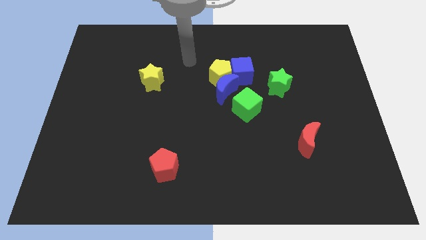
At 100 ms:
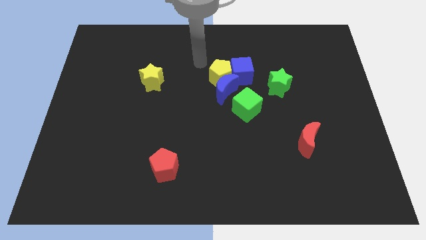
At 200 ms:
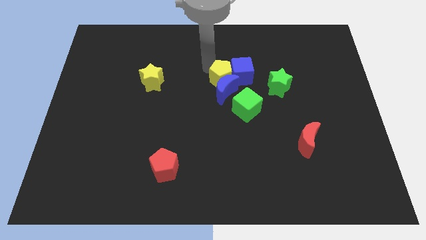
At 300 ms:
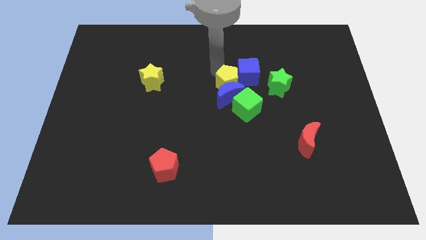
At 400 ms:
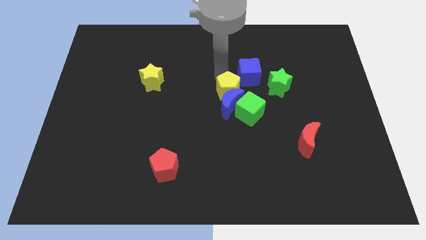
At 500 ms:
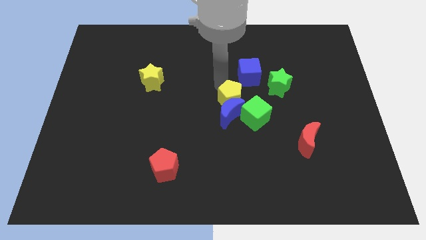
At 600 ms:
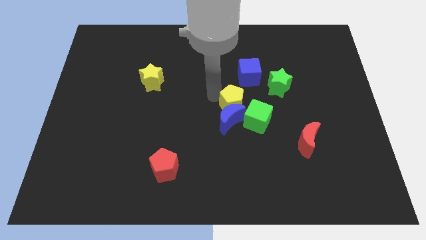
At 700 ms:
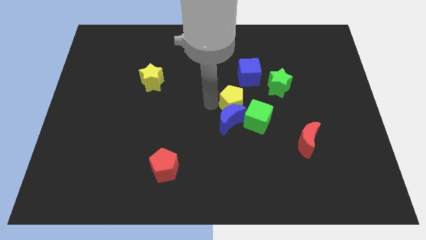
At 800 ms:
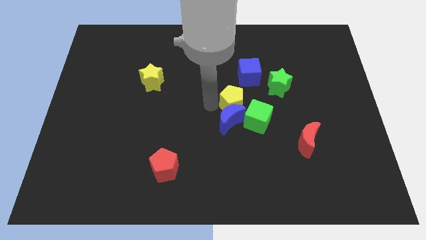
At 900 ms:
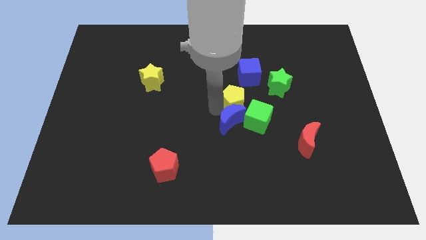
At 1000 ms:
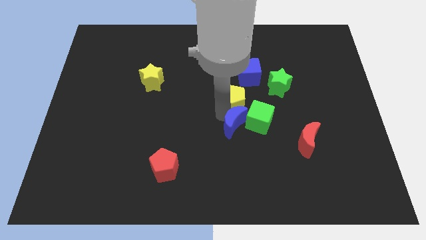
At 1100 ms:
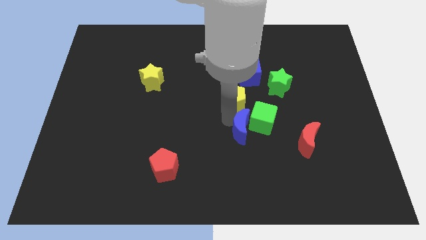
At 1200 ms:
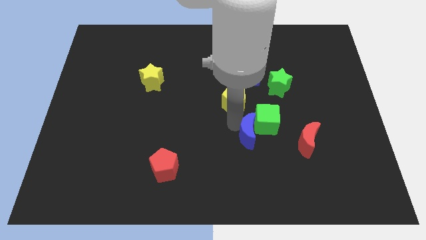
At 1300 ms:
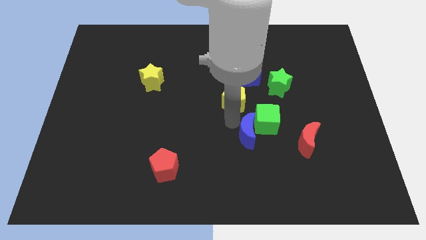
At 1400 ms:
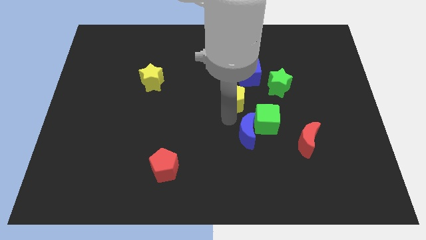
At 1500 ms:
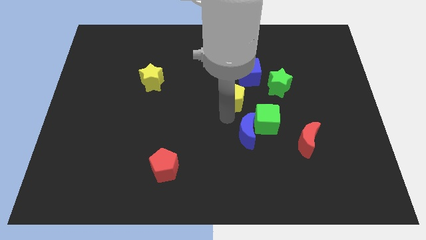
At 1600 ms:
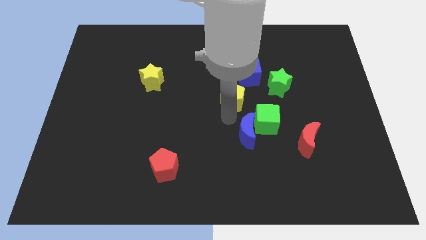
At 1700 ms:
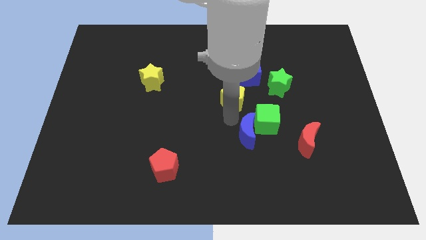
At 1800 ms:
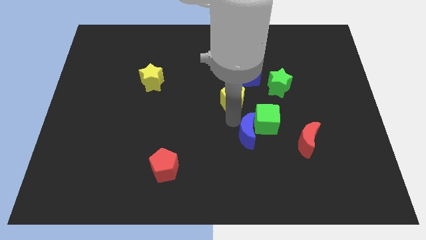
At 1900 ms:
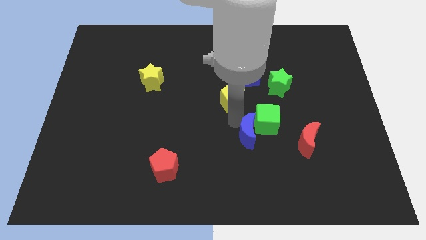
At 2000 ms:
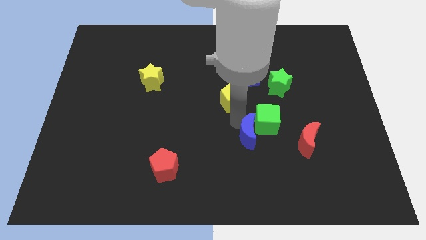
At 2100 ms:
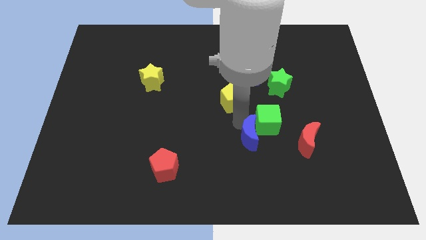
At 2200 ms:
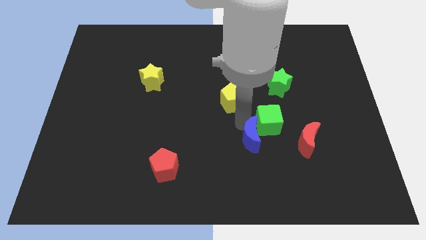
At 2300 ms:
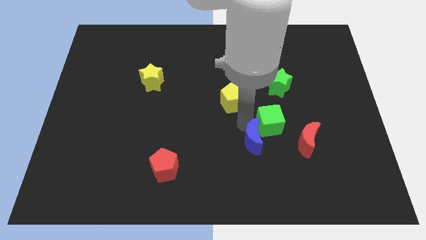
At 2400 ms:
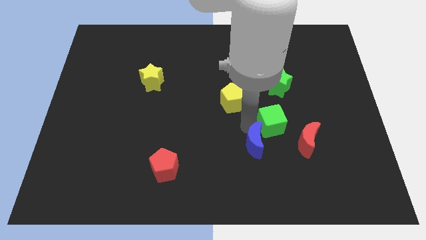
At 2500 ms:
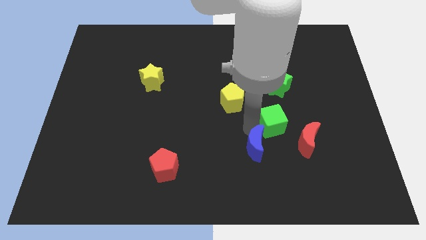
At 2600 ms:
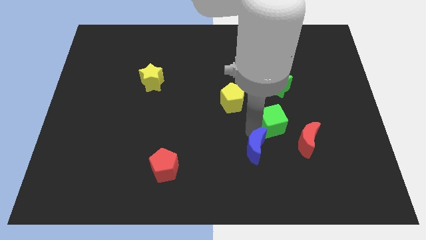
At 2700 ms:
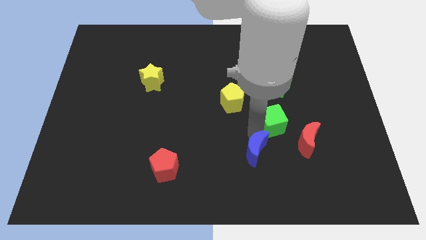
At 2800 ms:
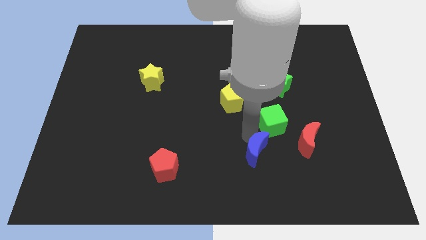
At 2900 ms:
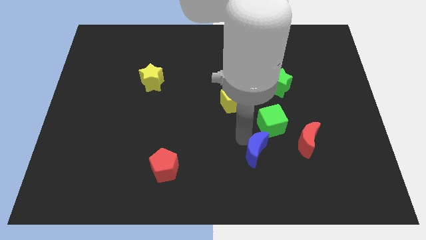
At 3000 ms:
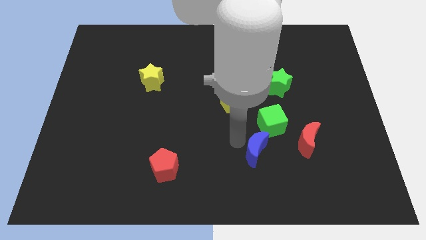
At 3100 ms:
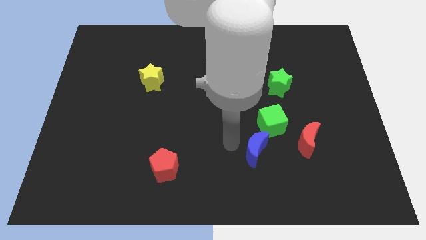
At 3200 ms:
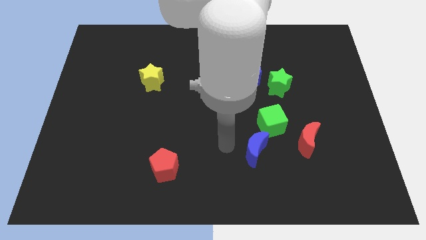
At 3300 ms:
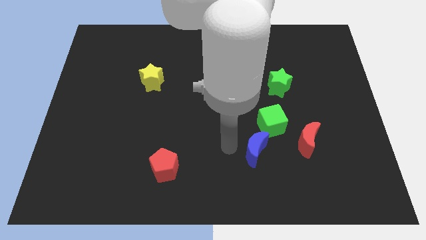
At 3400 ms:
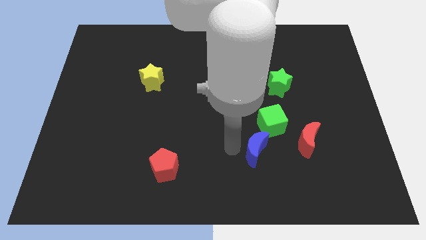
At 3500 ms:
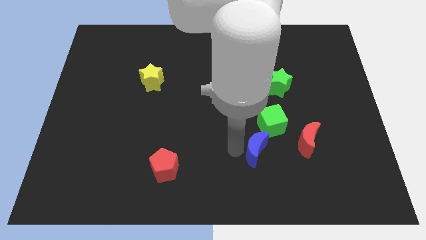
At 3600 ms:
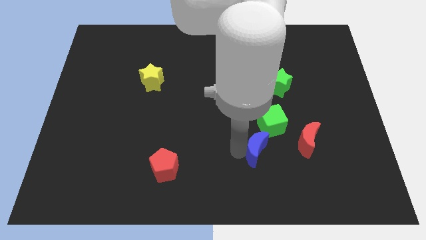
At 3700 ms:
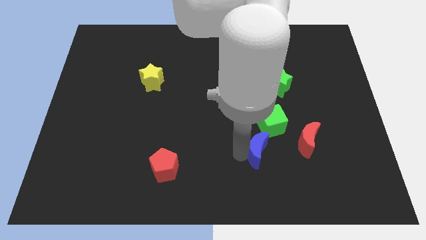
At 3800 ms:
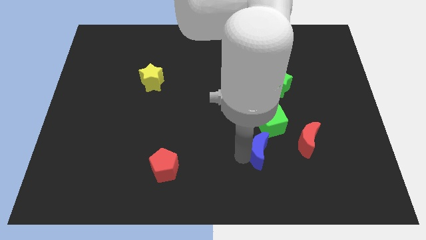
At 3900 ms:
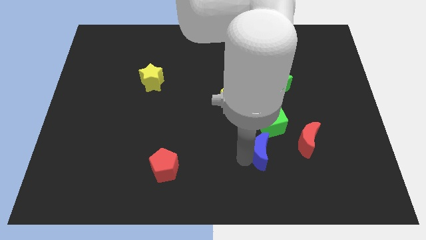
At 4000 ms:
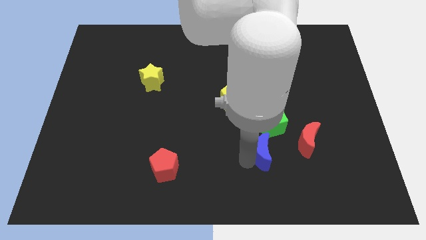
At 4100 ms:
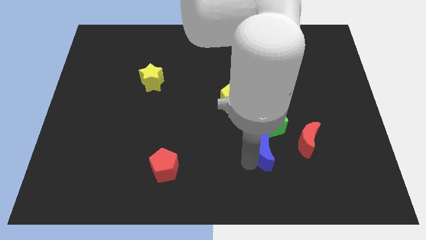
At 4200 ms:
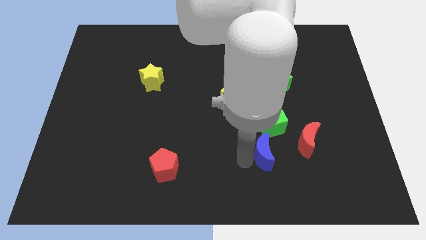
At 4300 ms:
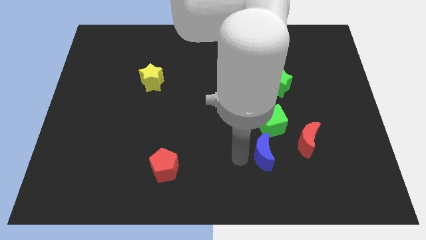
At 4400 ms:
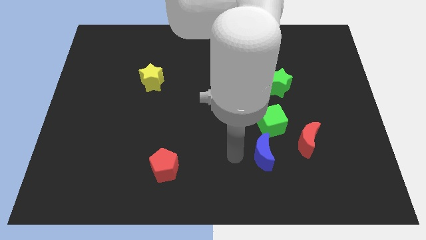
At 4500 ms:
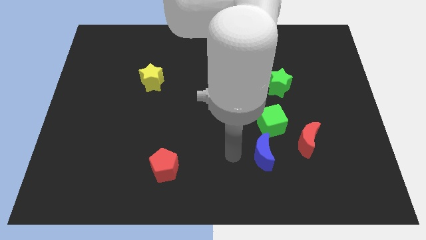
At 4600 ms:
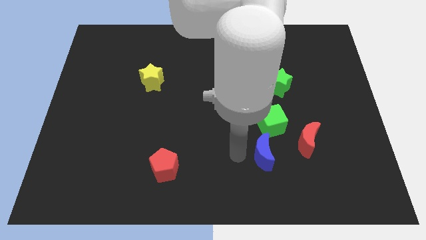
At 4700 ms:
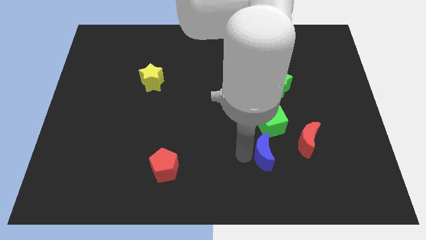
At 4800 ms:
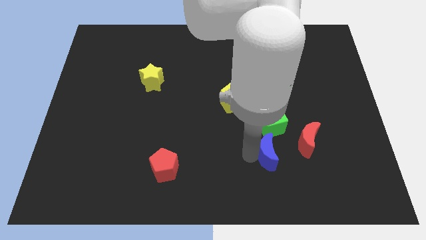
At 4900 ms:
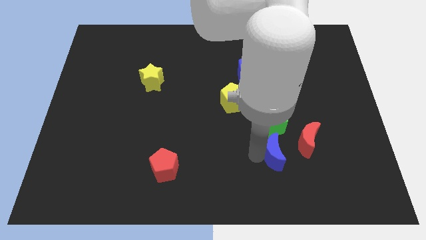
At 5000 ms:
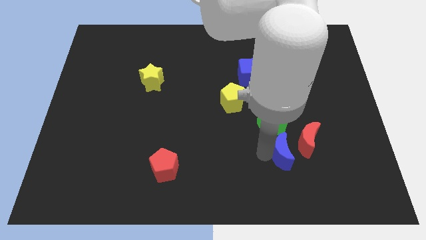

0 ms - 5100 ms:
slide the blue moon down and to the right diagonally

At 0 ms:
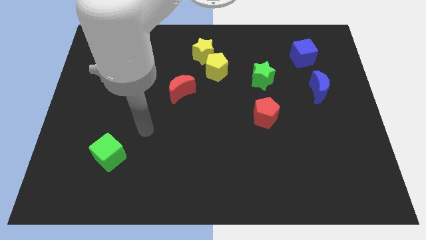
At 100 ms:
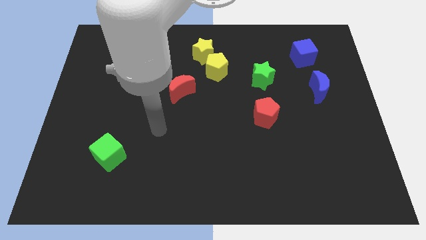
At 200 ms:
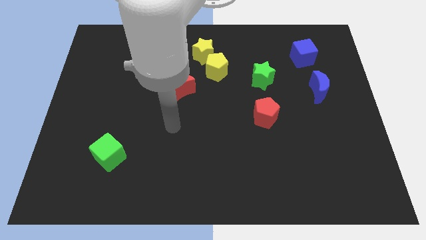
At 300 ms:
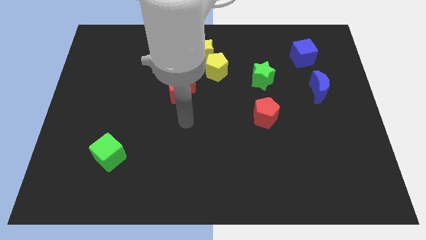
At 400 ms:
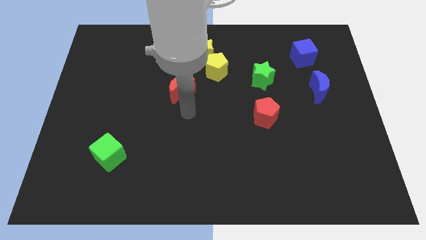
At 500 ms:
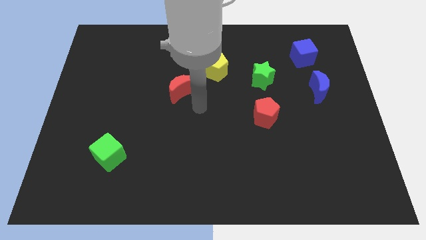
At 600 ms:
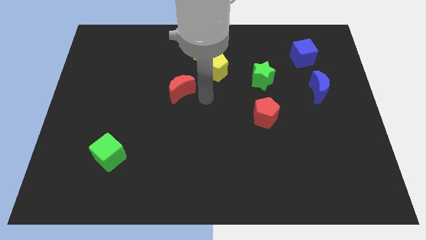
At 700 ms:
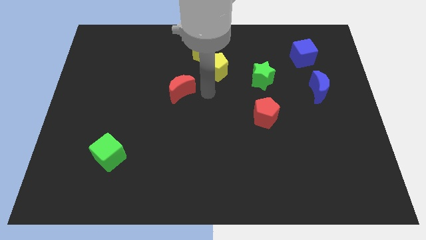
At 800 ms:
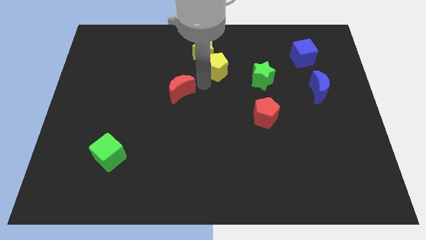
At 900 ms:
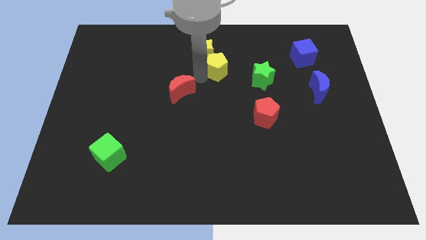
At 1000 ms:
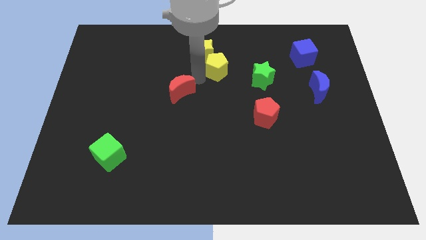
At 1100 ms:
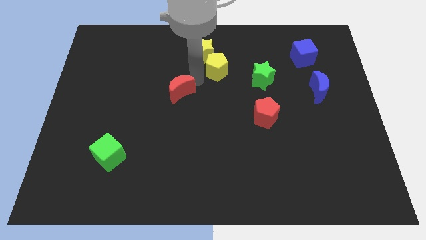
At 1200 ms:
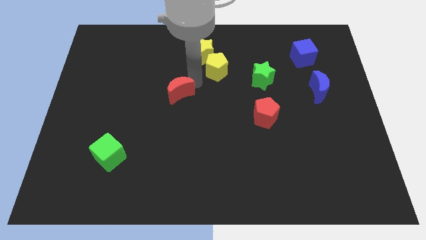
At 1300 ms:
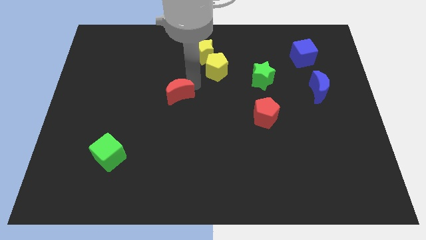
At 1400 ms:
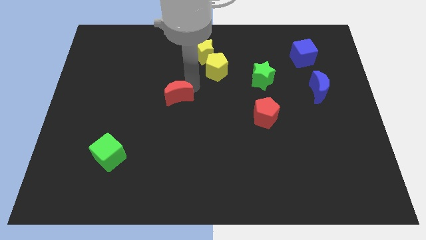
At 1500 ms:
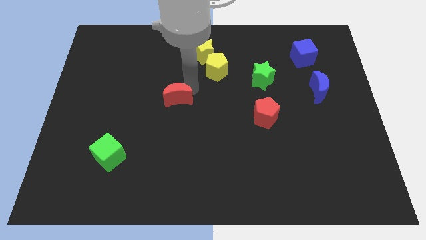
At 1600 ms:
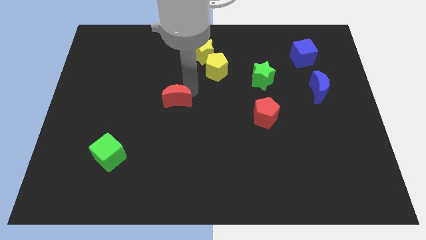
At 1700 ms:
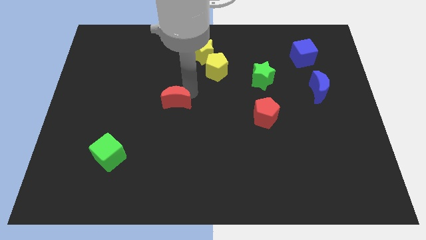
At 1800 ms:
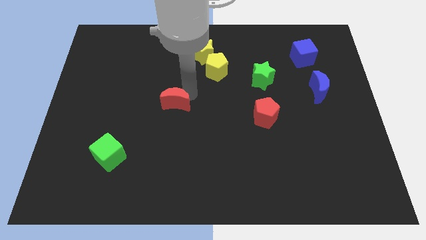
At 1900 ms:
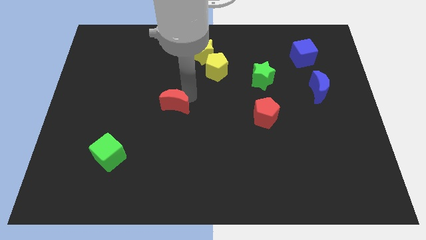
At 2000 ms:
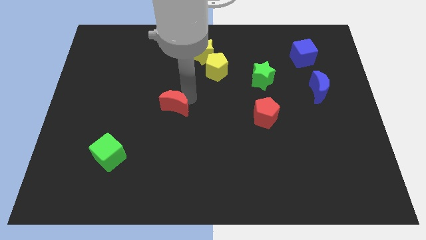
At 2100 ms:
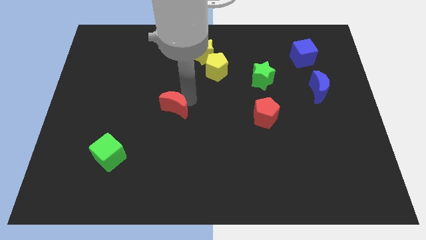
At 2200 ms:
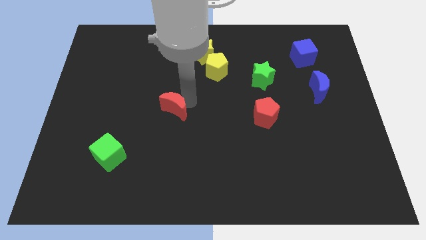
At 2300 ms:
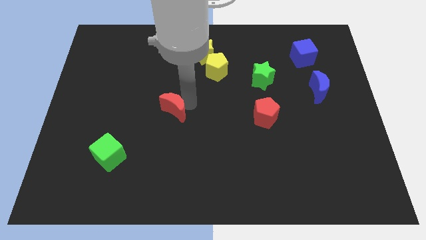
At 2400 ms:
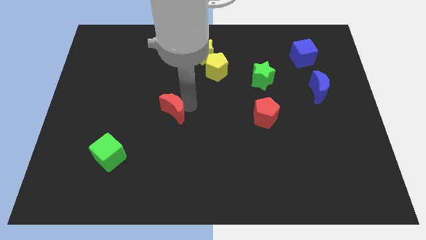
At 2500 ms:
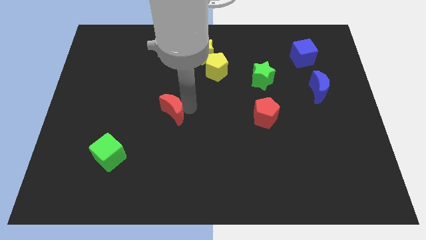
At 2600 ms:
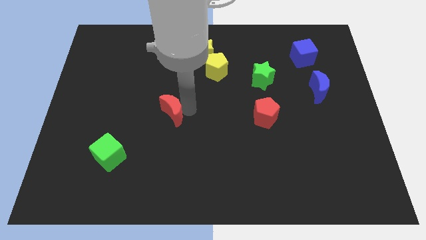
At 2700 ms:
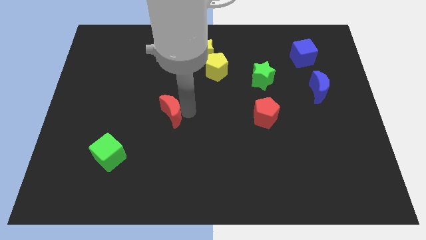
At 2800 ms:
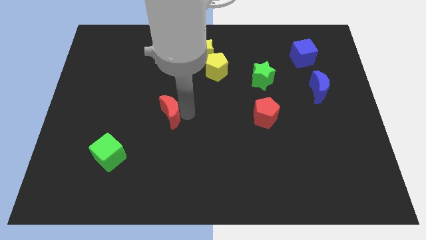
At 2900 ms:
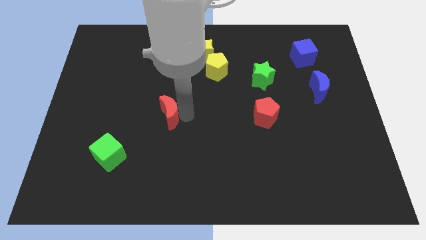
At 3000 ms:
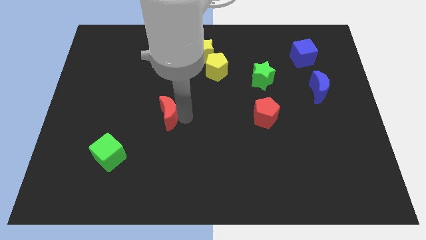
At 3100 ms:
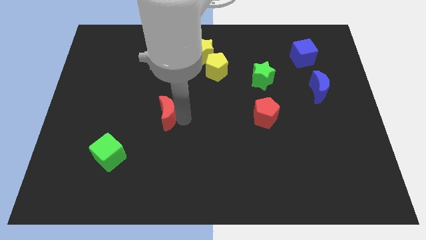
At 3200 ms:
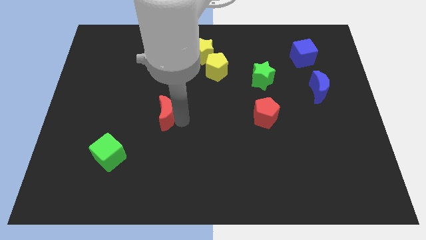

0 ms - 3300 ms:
move the red moon diagonally downwards and to the left somewhat

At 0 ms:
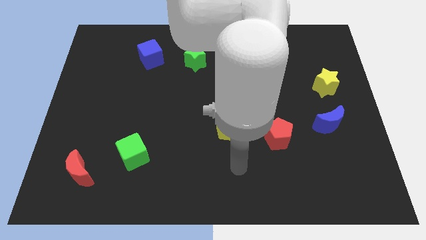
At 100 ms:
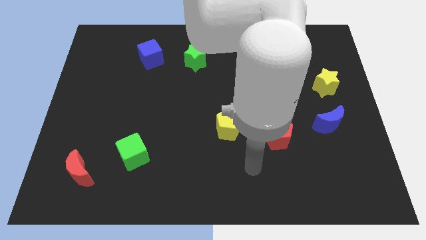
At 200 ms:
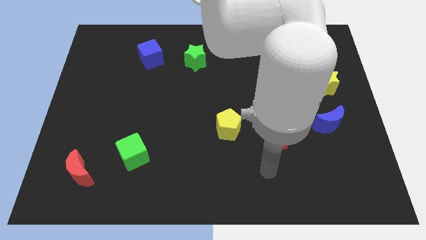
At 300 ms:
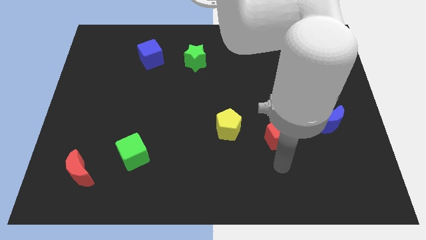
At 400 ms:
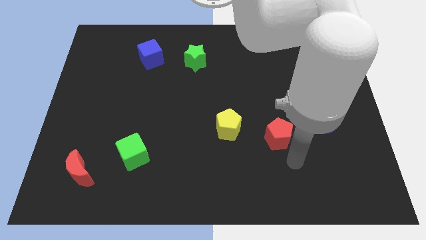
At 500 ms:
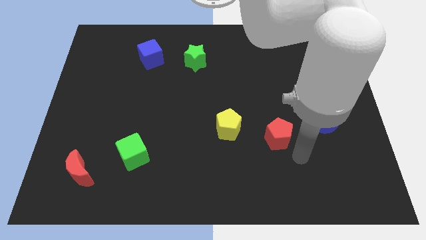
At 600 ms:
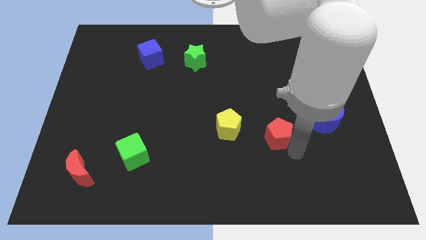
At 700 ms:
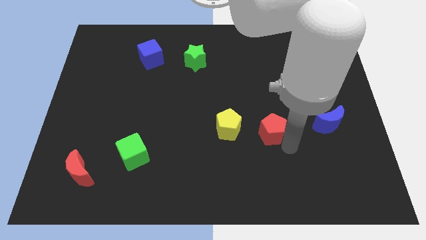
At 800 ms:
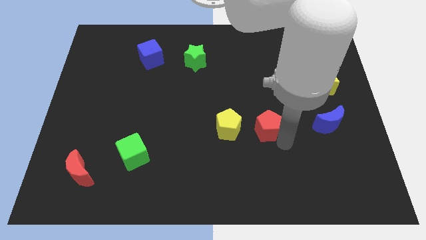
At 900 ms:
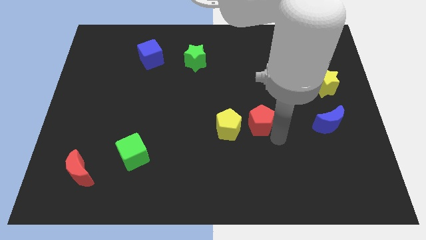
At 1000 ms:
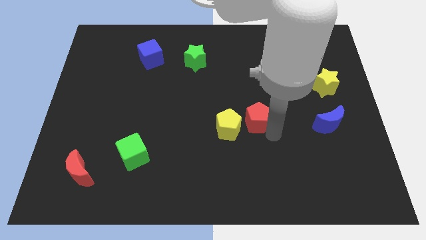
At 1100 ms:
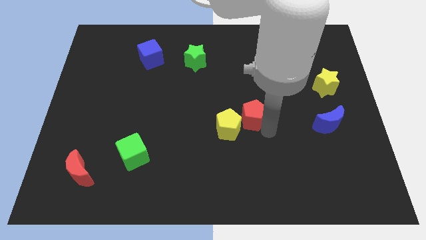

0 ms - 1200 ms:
push the red pentagon diagonally up and left slightly
